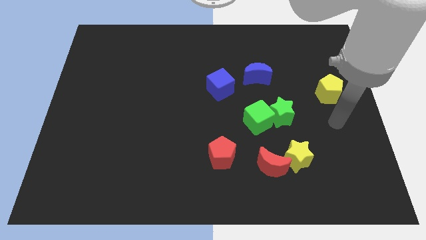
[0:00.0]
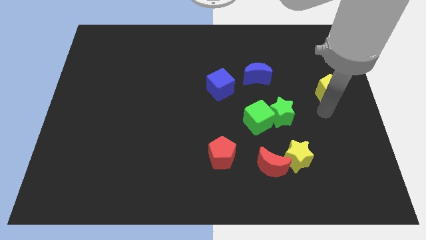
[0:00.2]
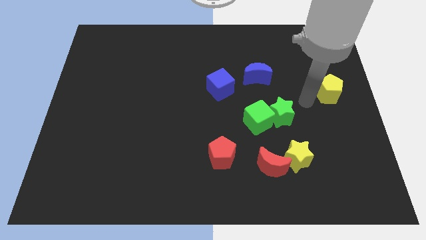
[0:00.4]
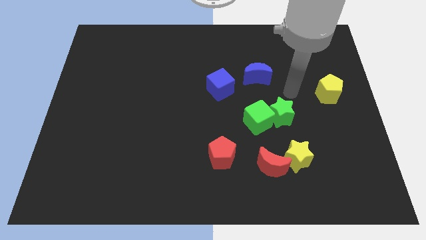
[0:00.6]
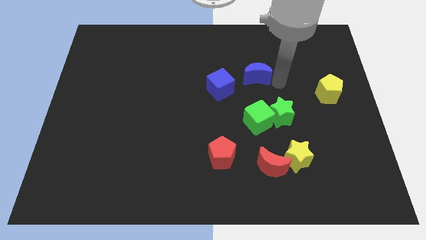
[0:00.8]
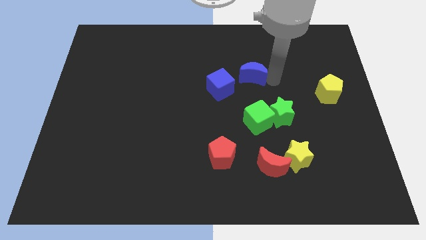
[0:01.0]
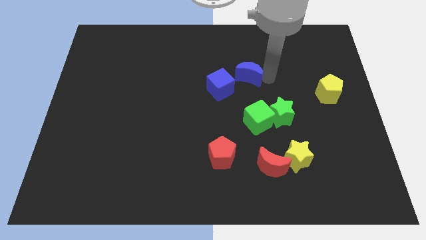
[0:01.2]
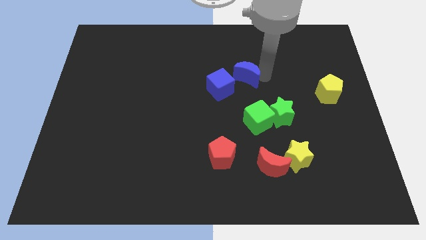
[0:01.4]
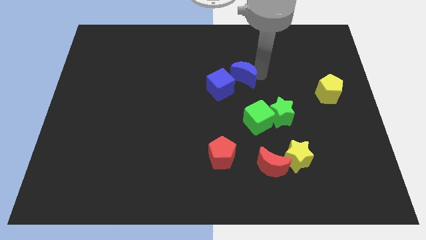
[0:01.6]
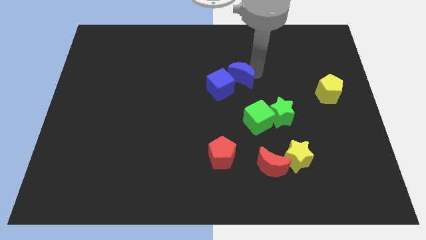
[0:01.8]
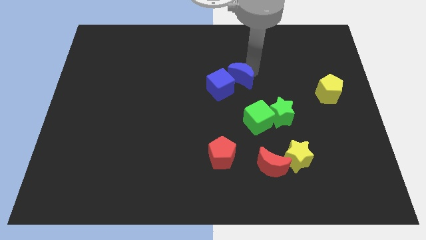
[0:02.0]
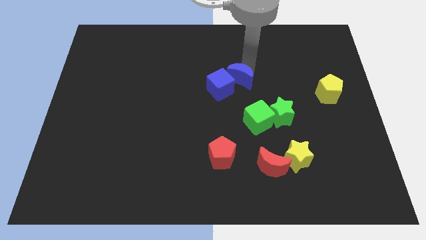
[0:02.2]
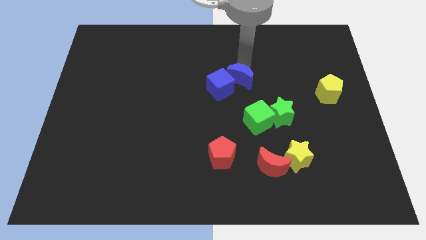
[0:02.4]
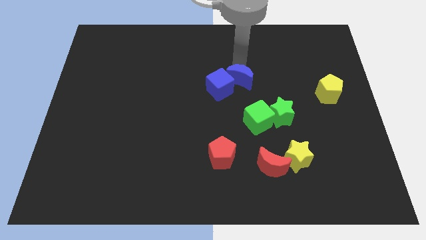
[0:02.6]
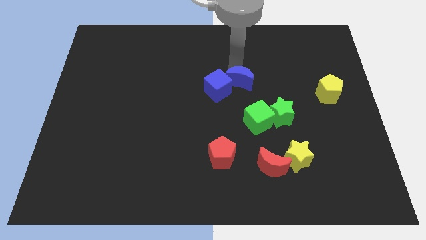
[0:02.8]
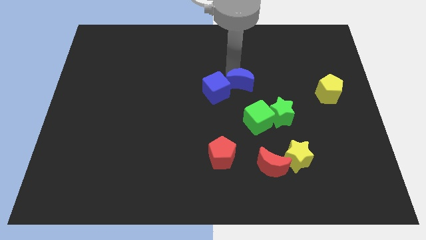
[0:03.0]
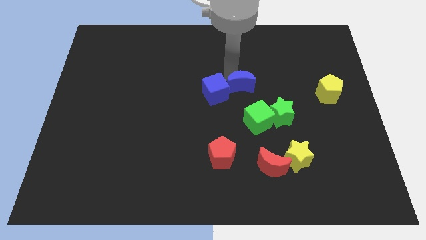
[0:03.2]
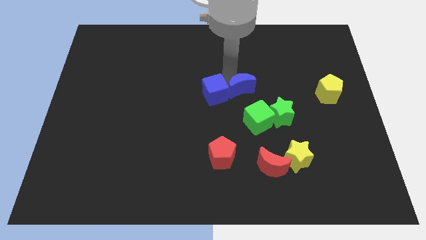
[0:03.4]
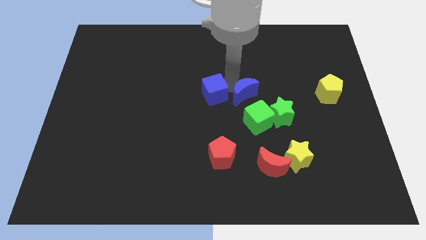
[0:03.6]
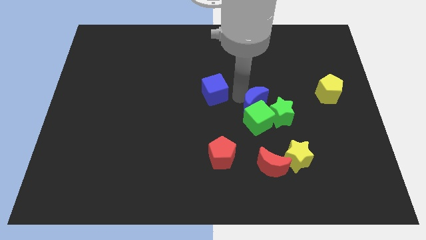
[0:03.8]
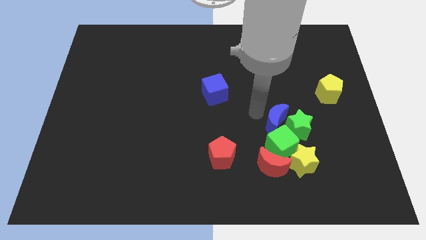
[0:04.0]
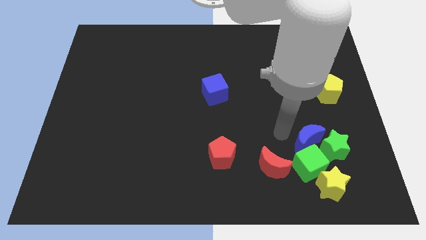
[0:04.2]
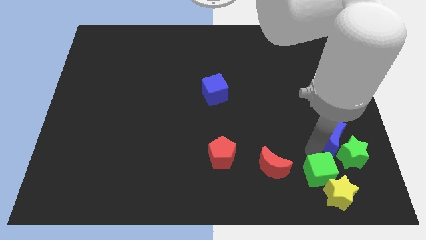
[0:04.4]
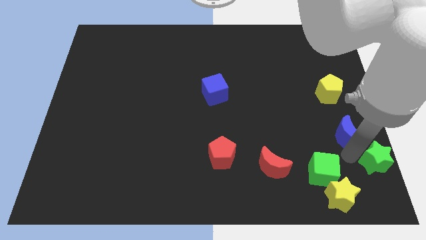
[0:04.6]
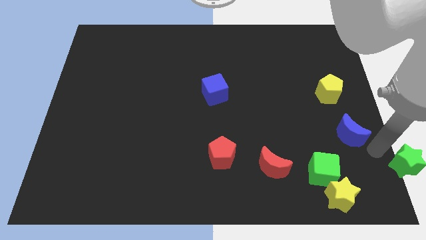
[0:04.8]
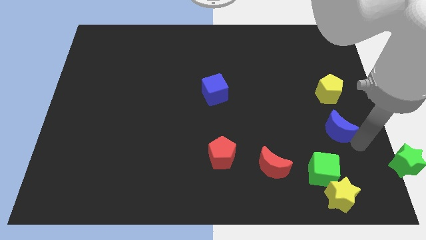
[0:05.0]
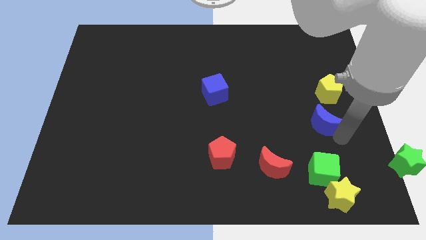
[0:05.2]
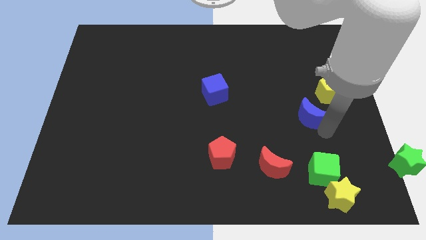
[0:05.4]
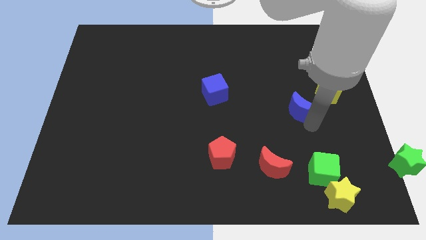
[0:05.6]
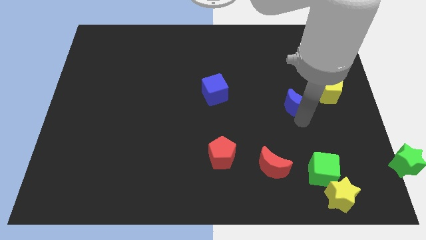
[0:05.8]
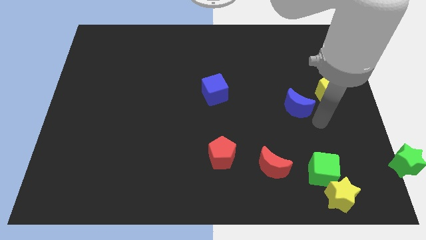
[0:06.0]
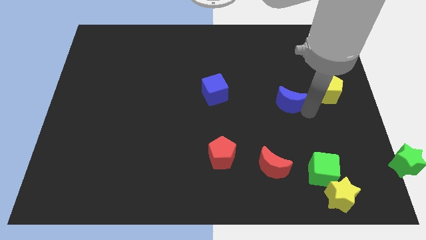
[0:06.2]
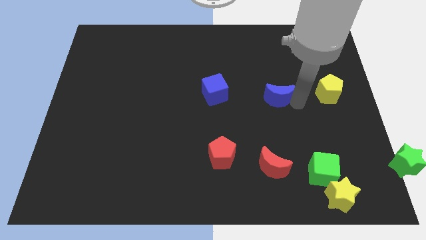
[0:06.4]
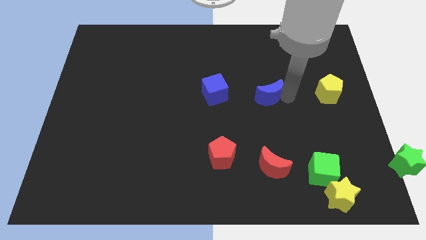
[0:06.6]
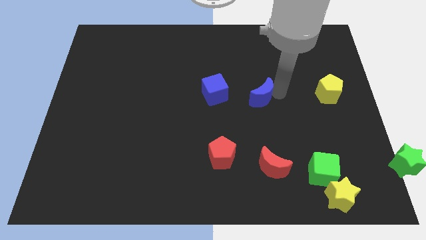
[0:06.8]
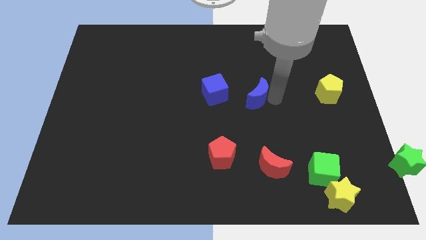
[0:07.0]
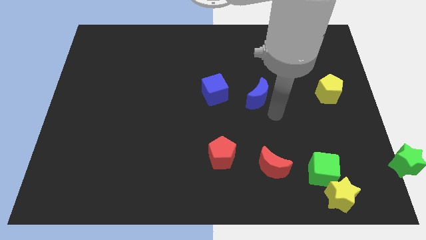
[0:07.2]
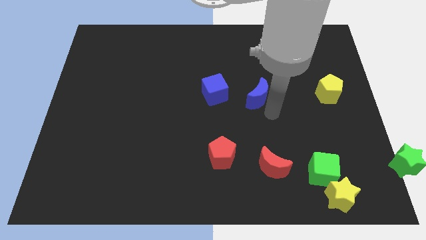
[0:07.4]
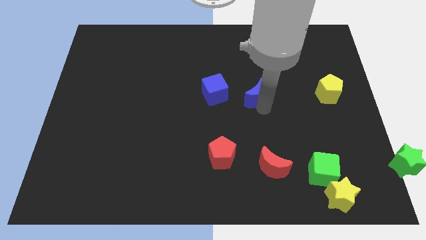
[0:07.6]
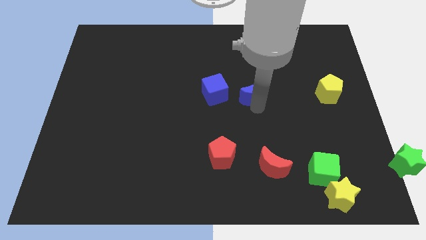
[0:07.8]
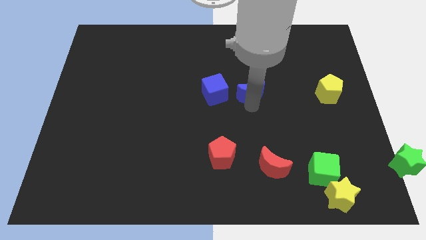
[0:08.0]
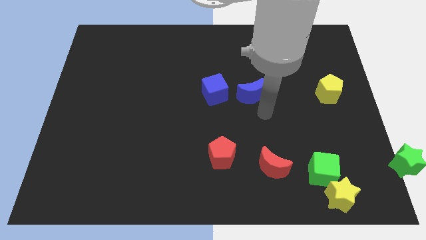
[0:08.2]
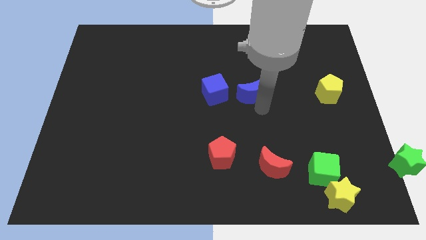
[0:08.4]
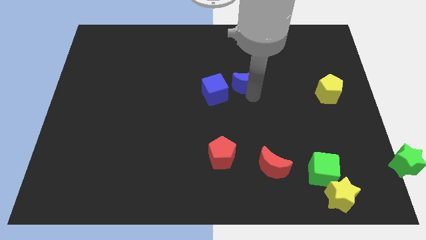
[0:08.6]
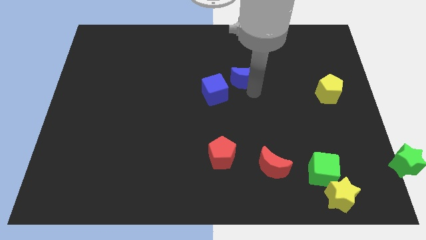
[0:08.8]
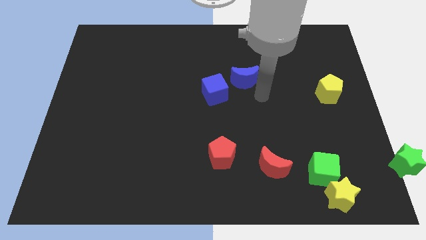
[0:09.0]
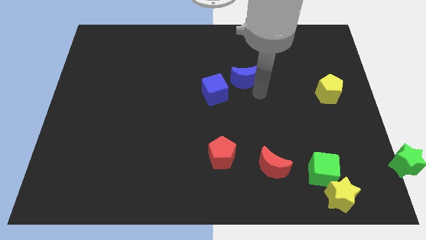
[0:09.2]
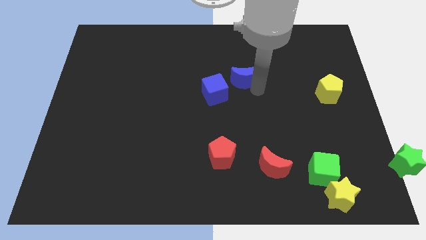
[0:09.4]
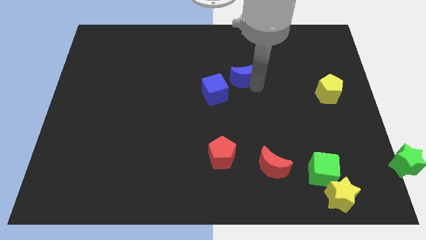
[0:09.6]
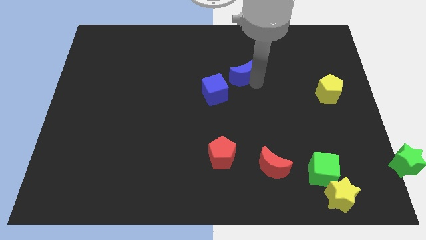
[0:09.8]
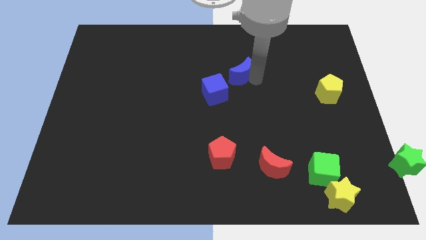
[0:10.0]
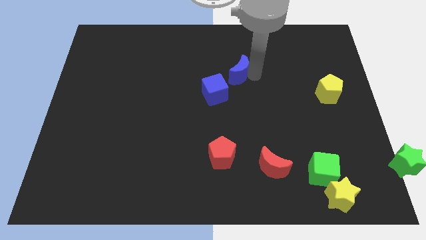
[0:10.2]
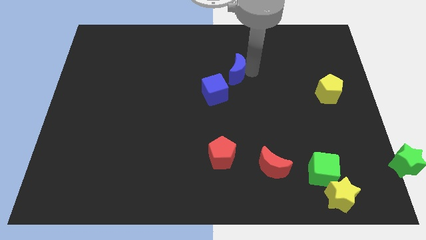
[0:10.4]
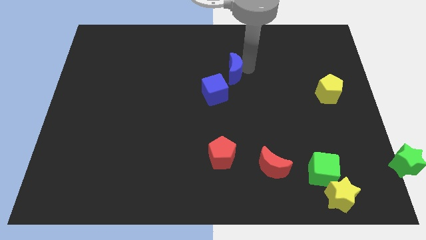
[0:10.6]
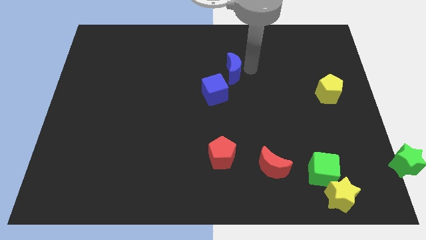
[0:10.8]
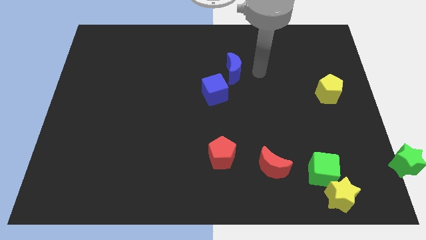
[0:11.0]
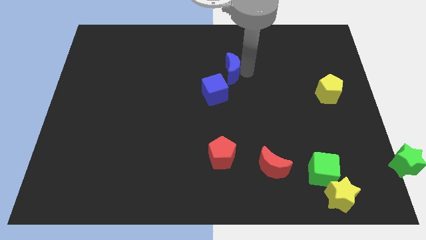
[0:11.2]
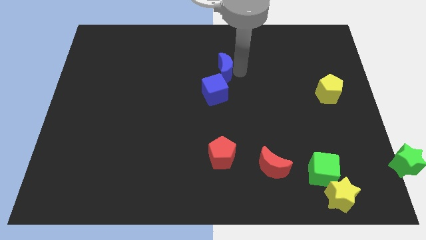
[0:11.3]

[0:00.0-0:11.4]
move the blue moon to the left somewhat

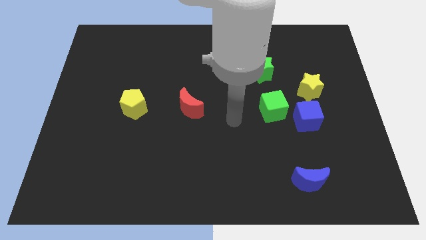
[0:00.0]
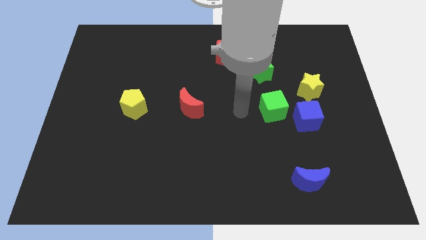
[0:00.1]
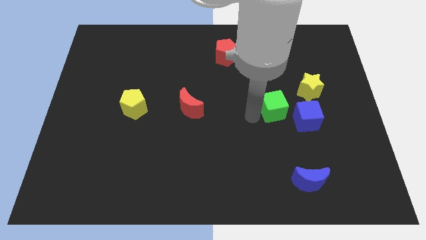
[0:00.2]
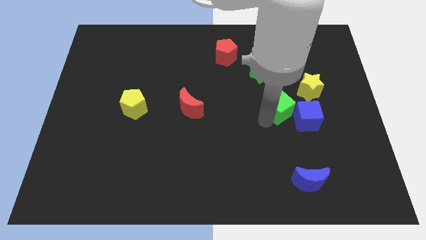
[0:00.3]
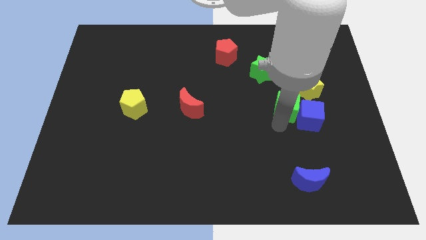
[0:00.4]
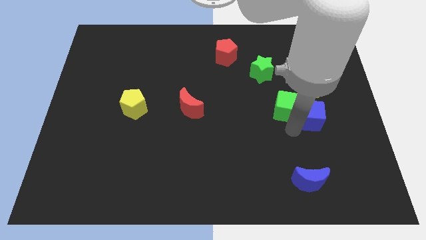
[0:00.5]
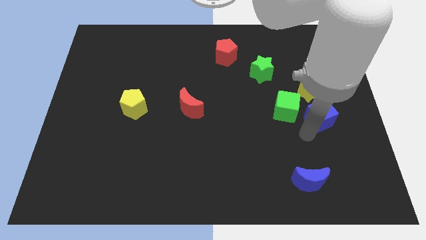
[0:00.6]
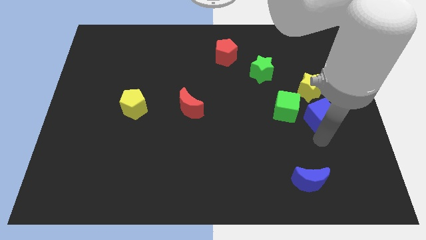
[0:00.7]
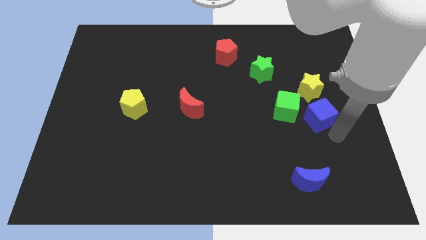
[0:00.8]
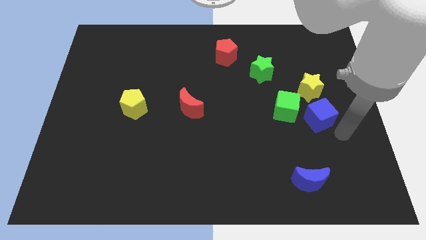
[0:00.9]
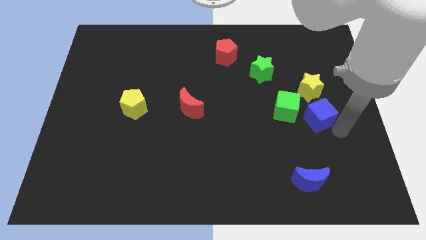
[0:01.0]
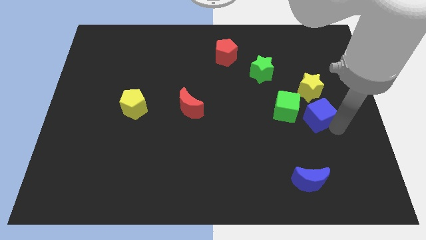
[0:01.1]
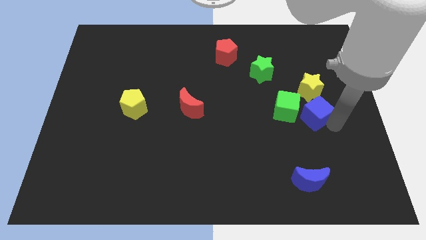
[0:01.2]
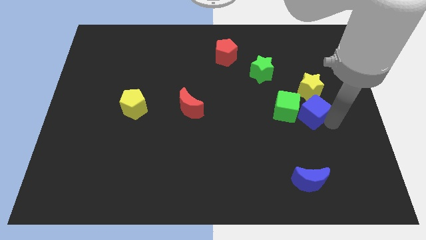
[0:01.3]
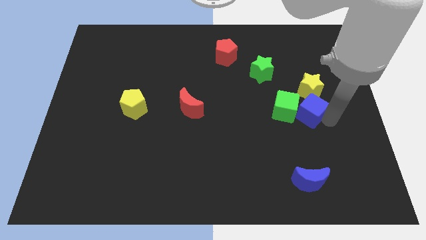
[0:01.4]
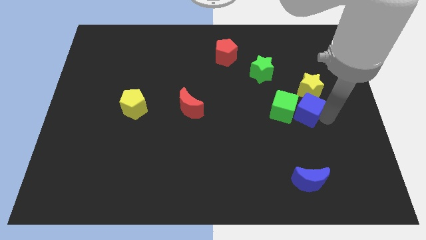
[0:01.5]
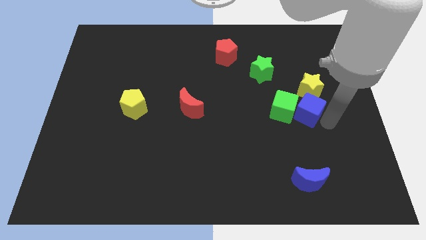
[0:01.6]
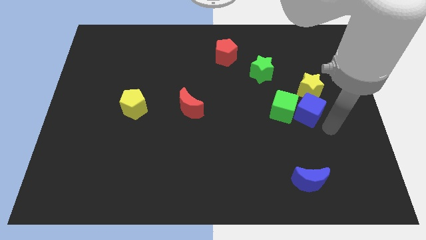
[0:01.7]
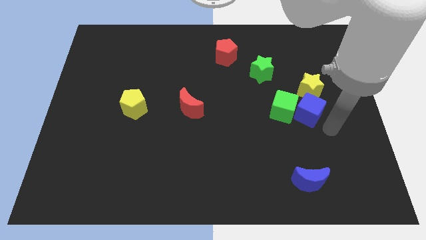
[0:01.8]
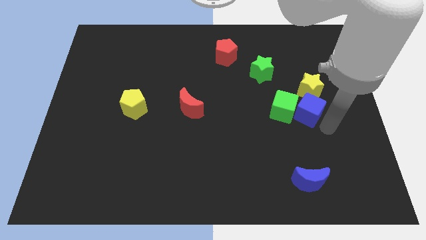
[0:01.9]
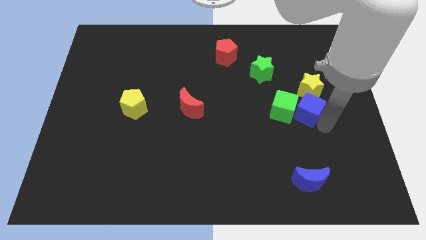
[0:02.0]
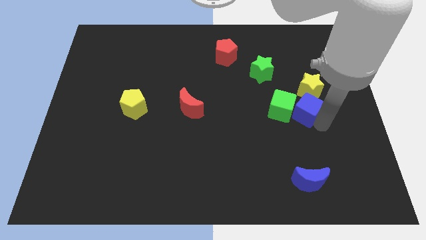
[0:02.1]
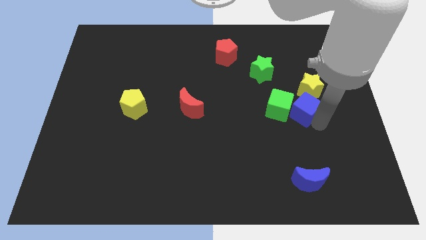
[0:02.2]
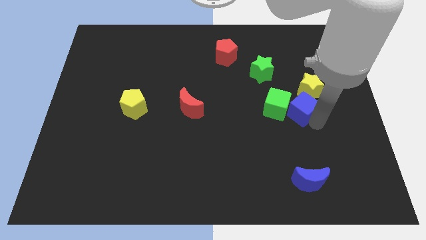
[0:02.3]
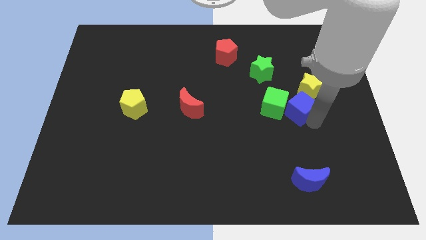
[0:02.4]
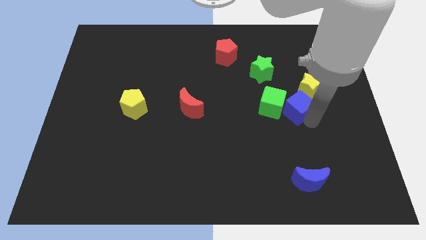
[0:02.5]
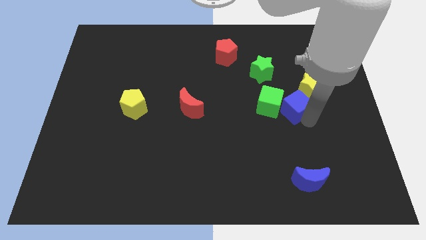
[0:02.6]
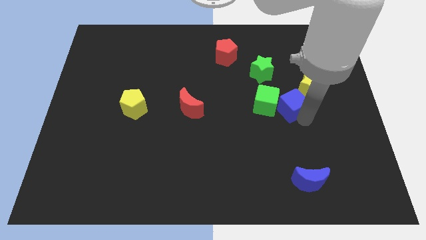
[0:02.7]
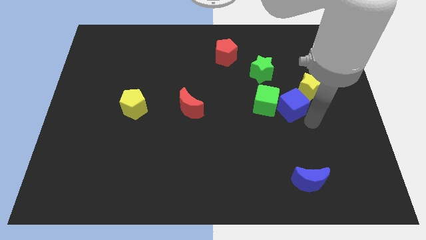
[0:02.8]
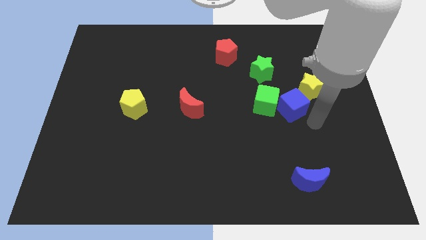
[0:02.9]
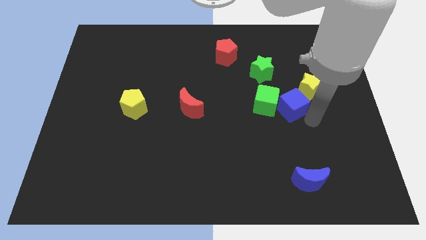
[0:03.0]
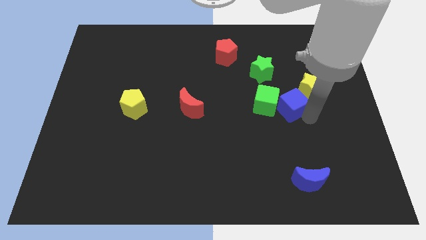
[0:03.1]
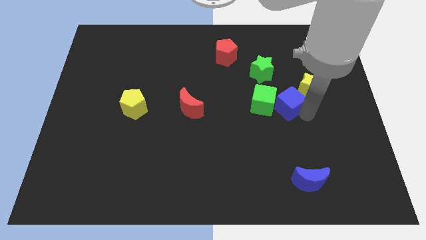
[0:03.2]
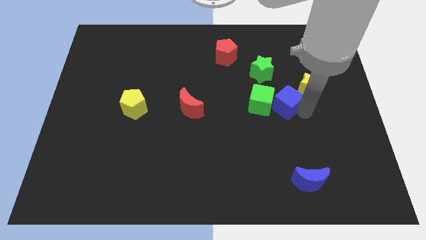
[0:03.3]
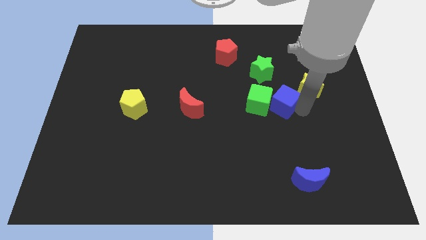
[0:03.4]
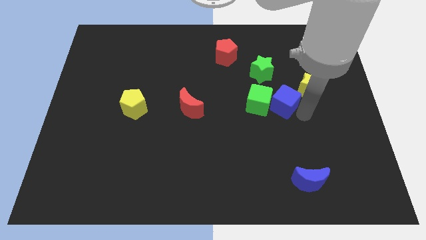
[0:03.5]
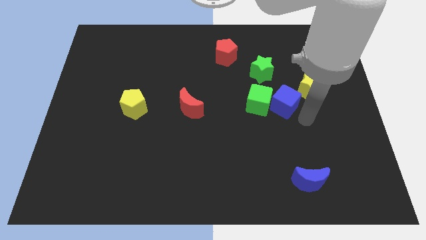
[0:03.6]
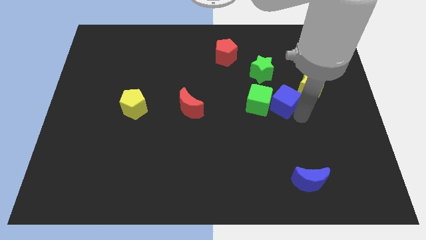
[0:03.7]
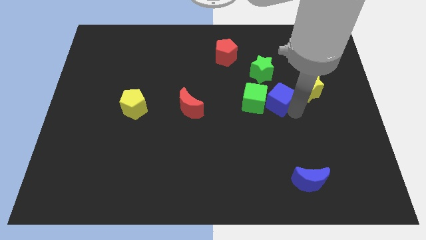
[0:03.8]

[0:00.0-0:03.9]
move the blue cube upwards and then to the left slightly
